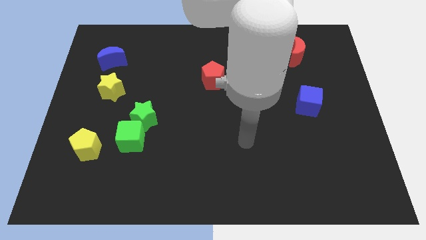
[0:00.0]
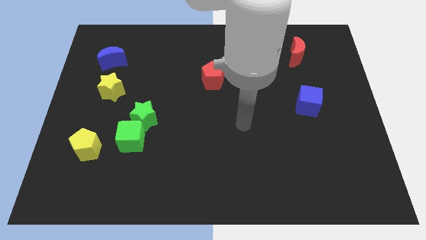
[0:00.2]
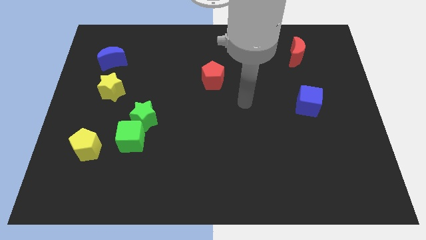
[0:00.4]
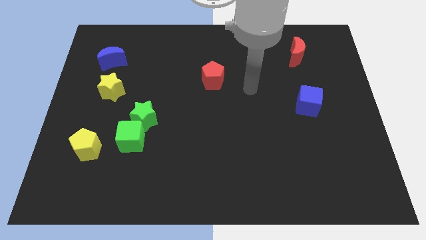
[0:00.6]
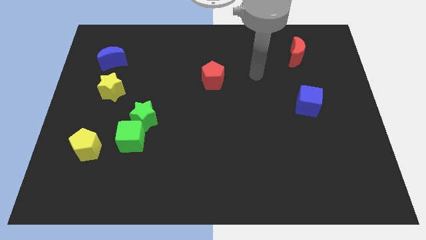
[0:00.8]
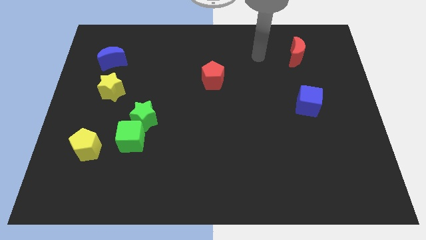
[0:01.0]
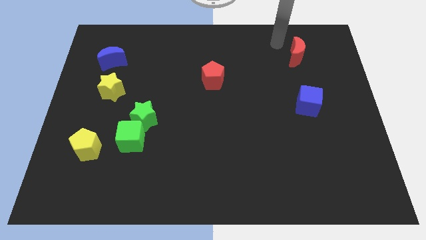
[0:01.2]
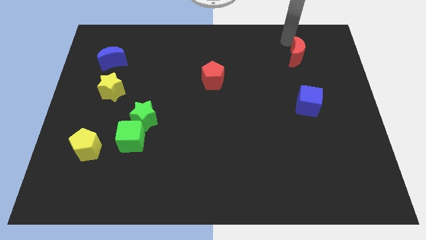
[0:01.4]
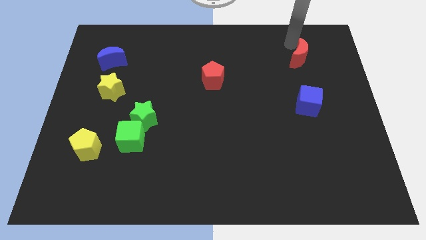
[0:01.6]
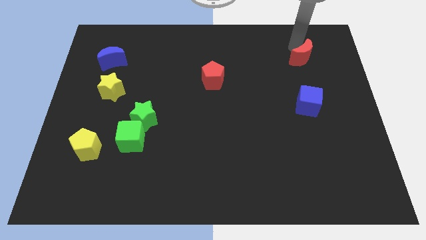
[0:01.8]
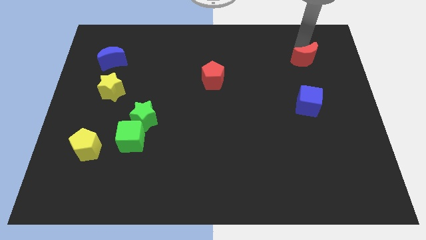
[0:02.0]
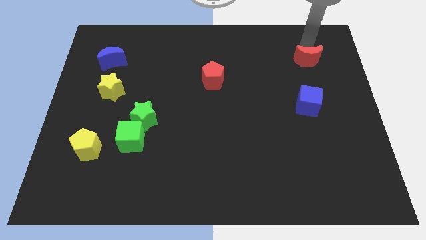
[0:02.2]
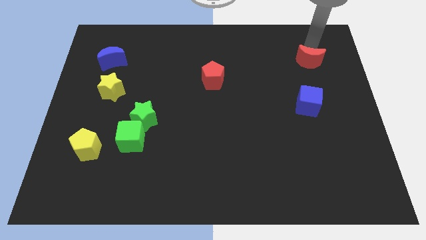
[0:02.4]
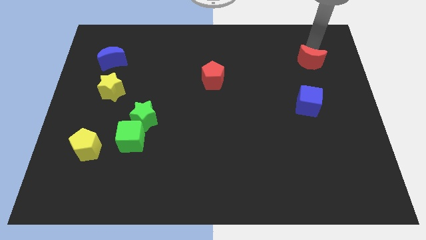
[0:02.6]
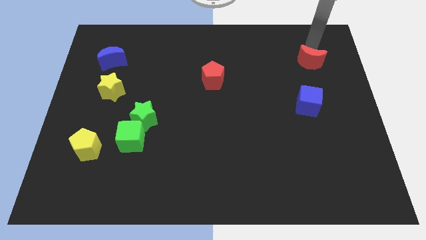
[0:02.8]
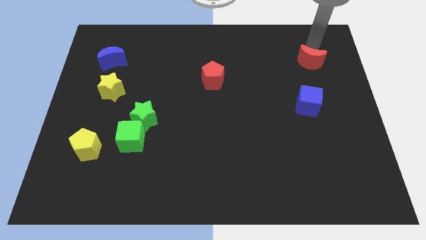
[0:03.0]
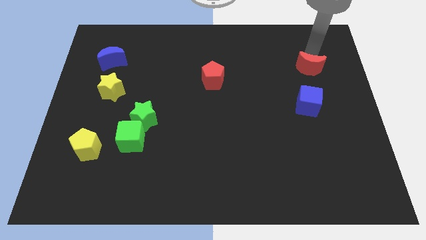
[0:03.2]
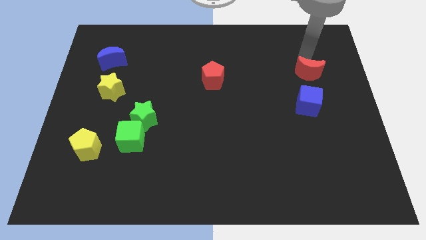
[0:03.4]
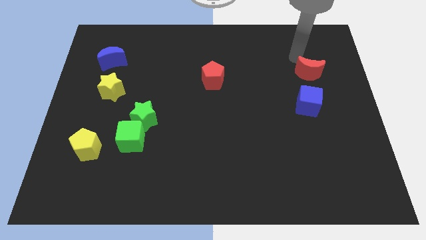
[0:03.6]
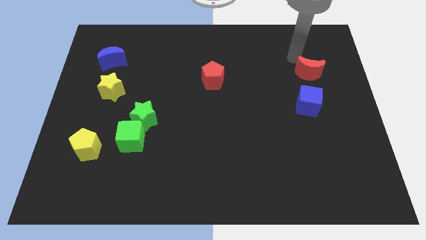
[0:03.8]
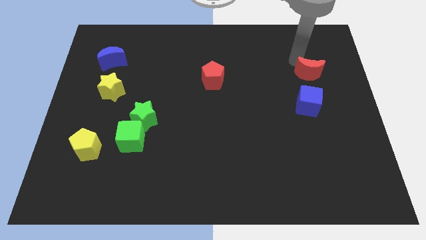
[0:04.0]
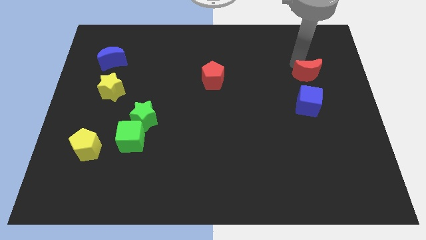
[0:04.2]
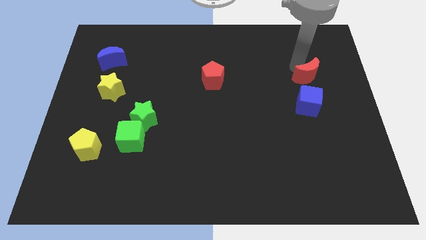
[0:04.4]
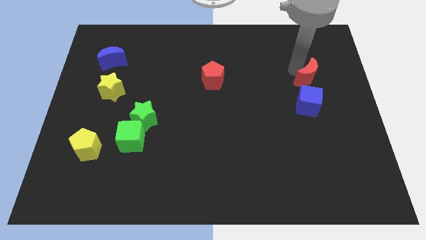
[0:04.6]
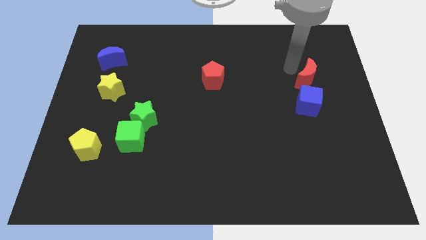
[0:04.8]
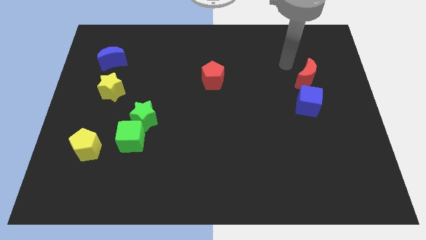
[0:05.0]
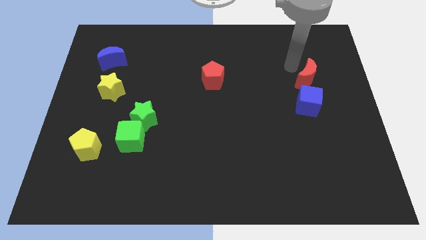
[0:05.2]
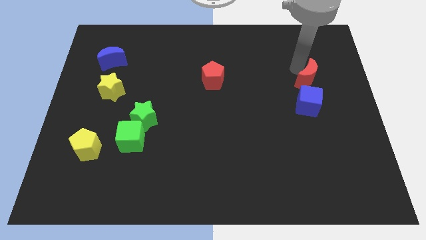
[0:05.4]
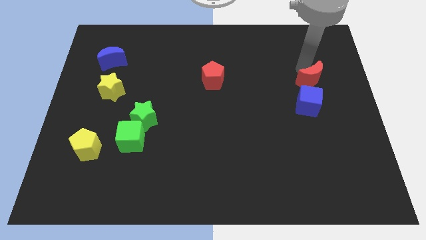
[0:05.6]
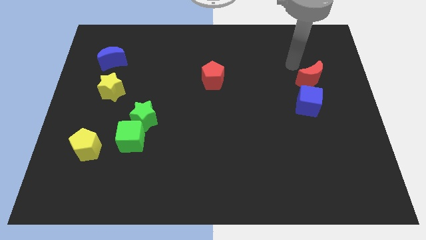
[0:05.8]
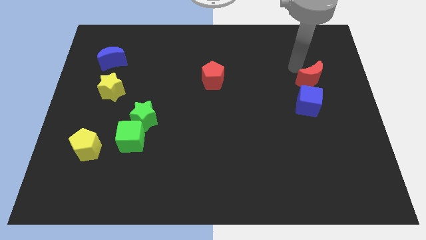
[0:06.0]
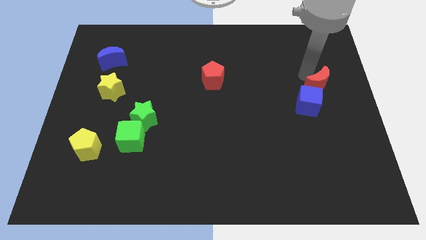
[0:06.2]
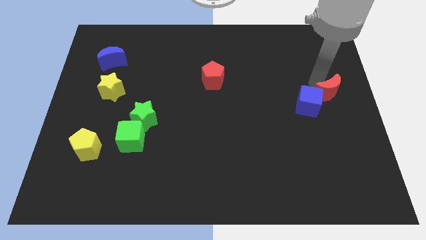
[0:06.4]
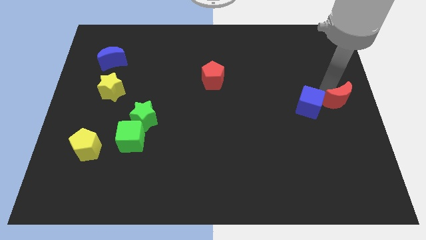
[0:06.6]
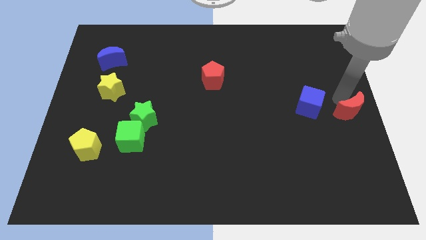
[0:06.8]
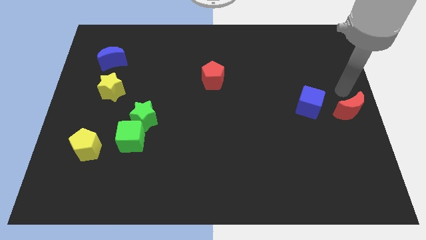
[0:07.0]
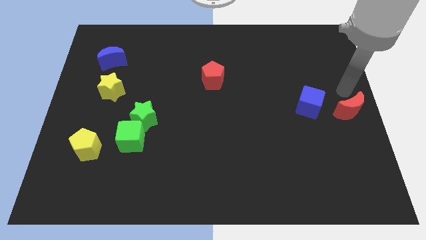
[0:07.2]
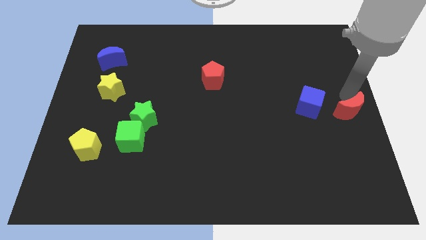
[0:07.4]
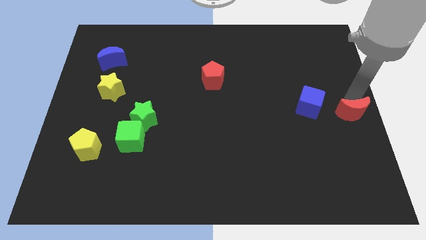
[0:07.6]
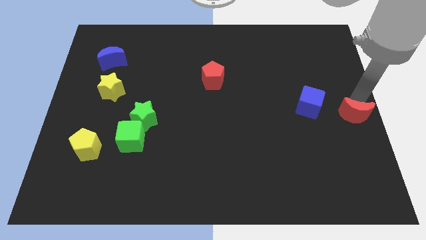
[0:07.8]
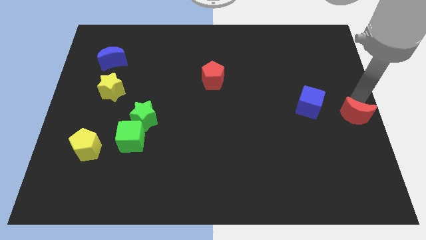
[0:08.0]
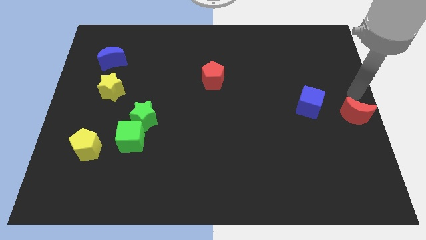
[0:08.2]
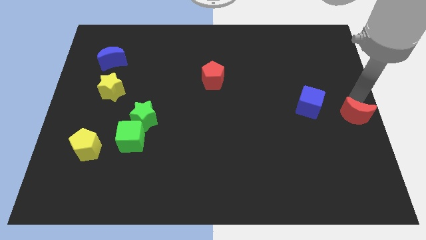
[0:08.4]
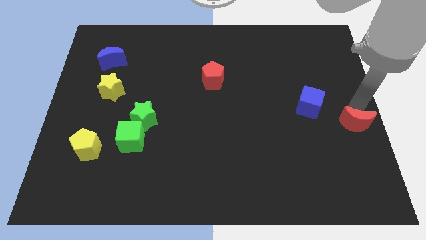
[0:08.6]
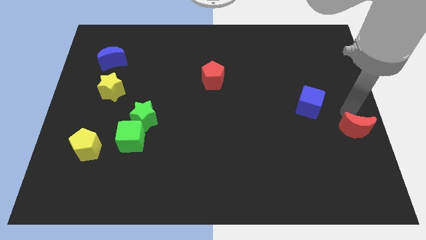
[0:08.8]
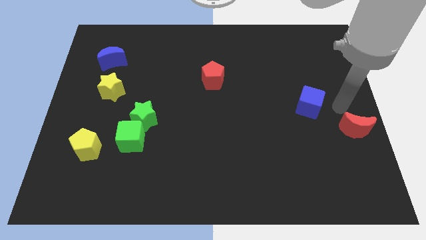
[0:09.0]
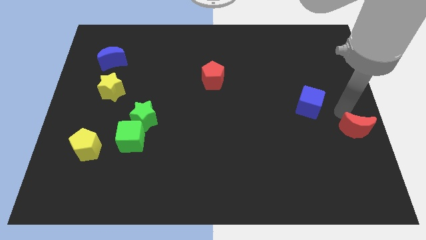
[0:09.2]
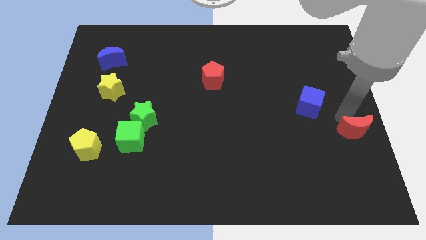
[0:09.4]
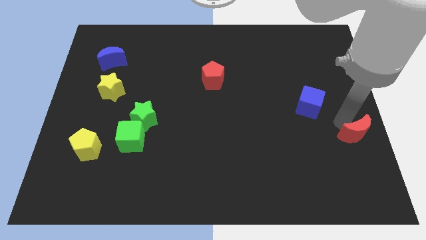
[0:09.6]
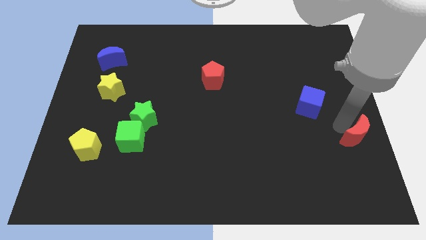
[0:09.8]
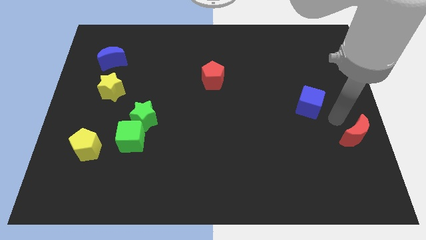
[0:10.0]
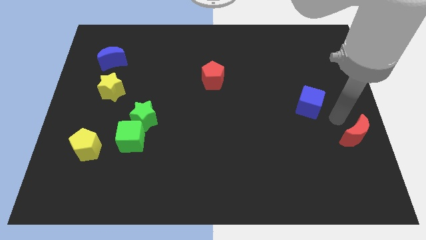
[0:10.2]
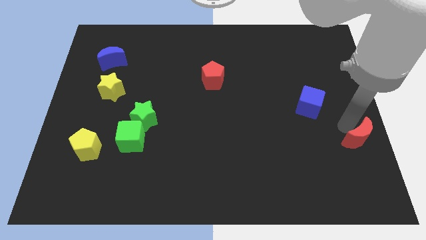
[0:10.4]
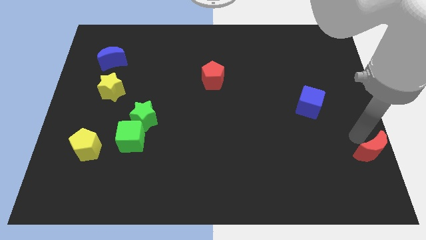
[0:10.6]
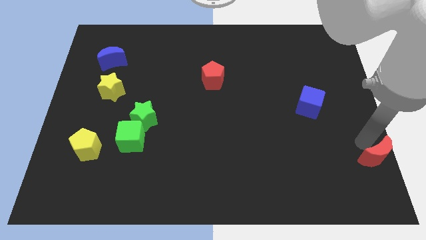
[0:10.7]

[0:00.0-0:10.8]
move the red moon to the bottom right corner

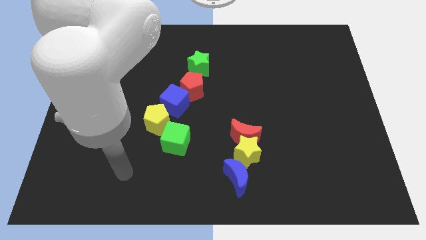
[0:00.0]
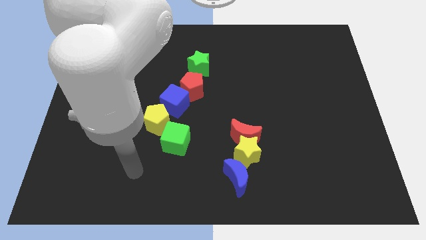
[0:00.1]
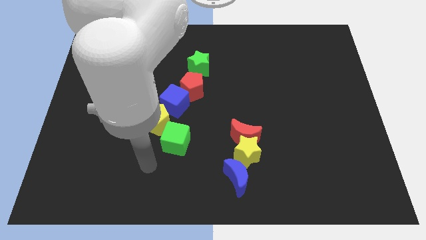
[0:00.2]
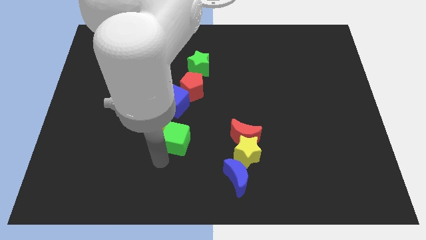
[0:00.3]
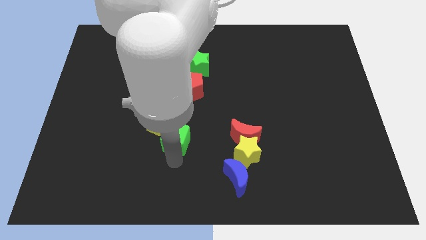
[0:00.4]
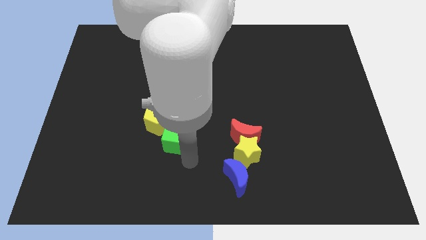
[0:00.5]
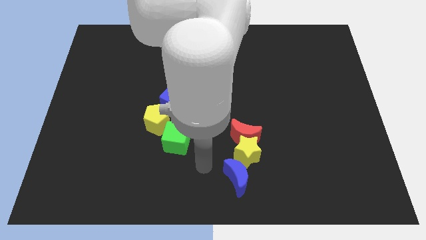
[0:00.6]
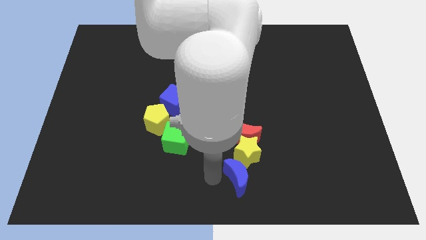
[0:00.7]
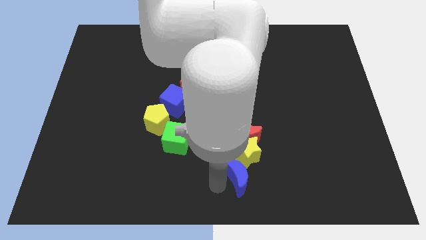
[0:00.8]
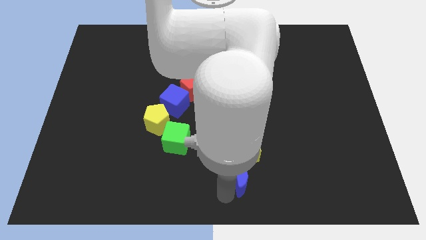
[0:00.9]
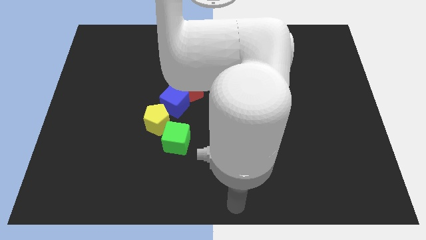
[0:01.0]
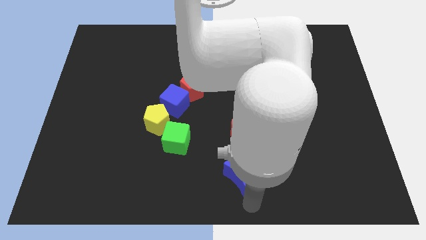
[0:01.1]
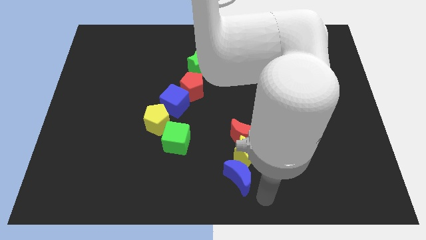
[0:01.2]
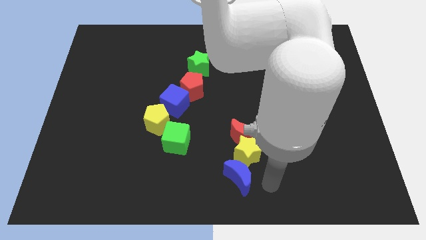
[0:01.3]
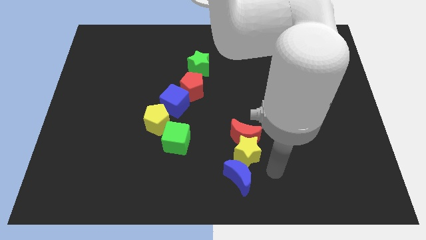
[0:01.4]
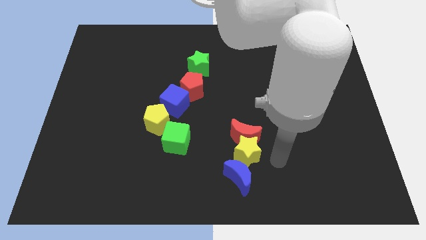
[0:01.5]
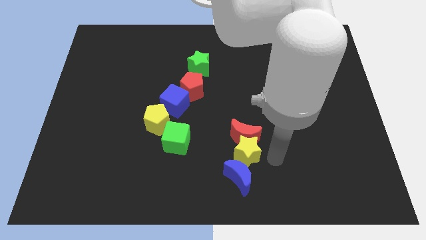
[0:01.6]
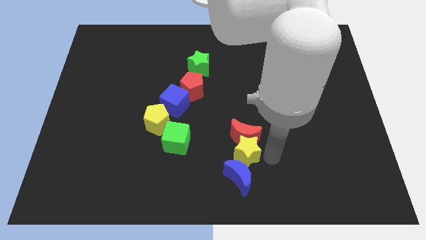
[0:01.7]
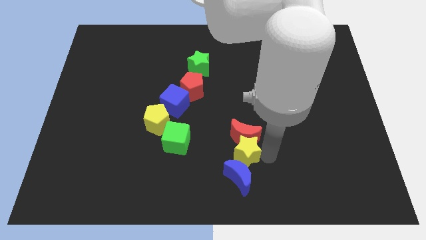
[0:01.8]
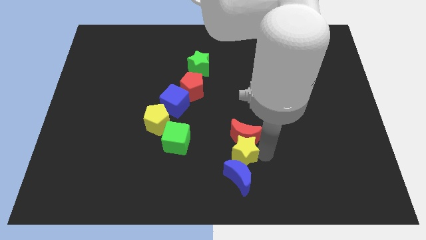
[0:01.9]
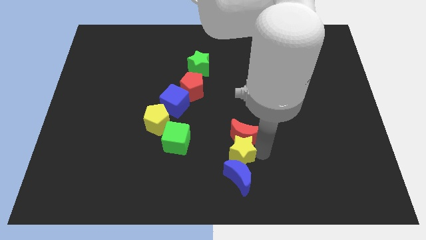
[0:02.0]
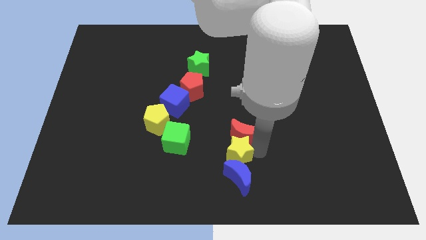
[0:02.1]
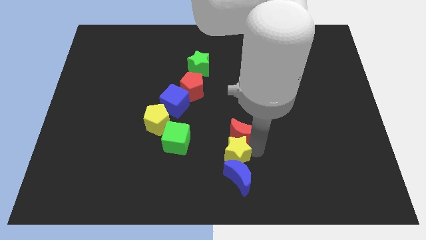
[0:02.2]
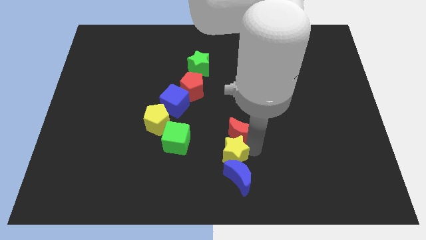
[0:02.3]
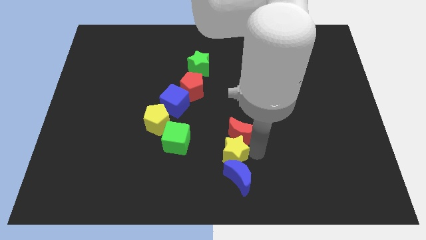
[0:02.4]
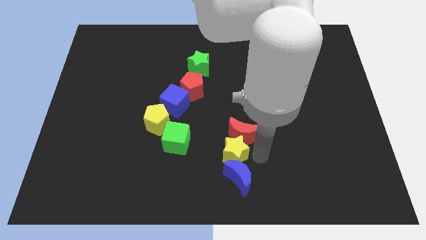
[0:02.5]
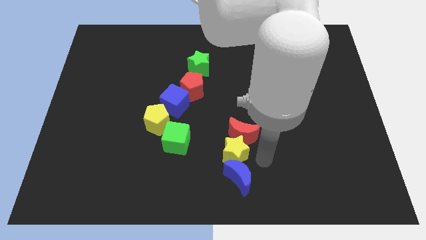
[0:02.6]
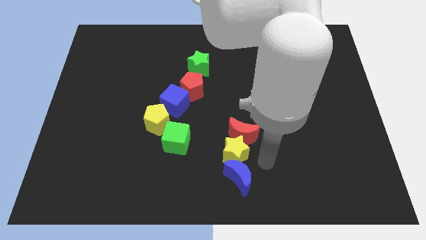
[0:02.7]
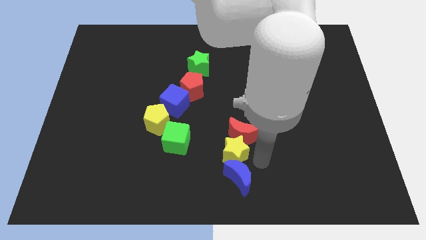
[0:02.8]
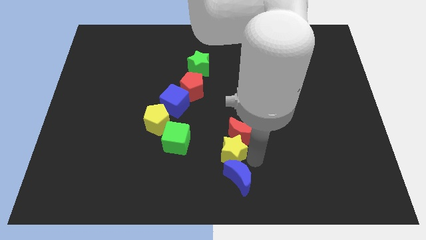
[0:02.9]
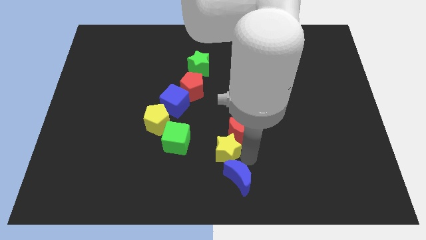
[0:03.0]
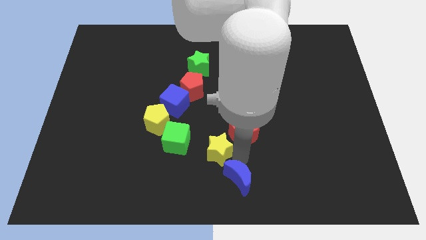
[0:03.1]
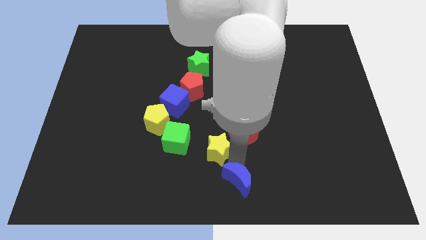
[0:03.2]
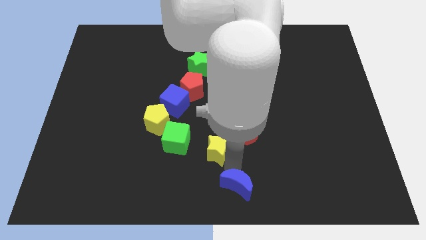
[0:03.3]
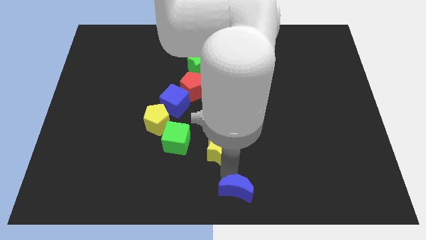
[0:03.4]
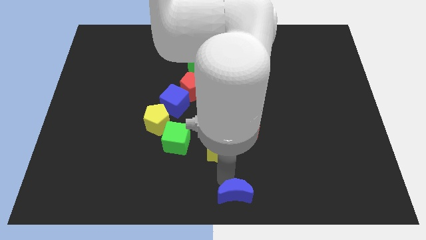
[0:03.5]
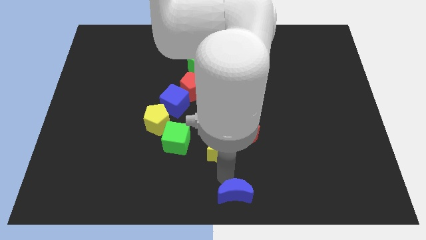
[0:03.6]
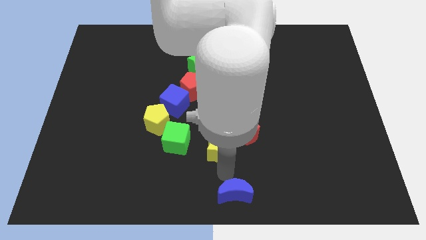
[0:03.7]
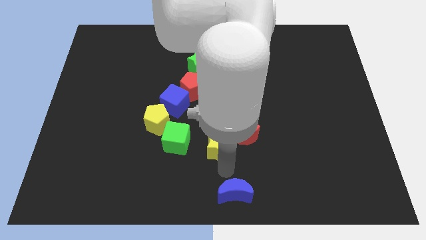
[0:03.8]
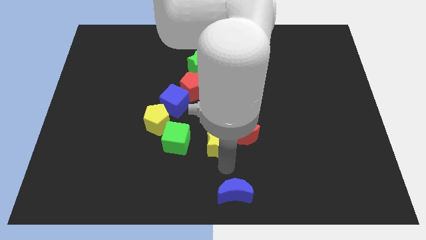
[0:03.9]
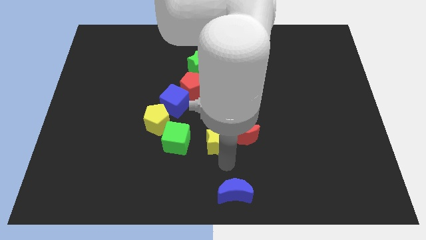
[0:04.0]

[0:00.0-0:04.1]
slide the yellow star to the center of the board
